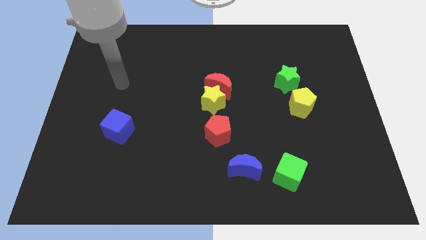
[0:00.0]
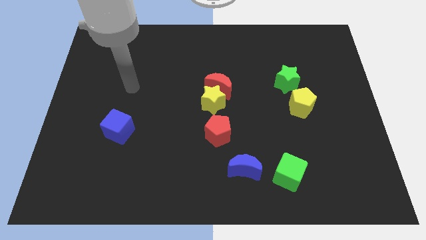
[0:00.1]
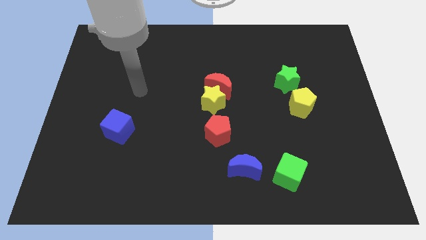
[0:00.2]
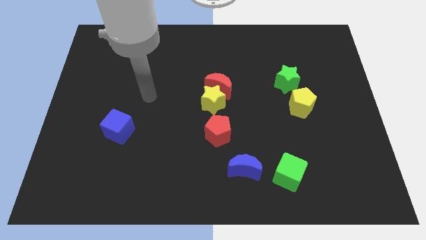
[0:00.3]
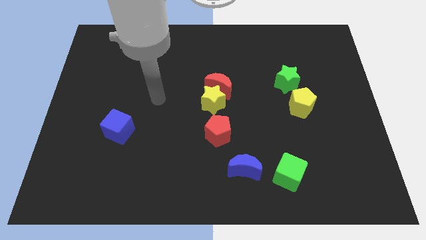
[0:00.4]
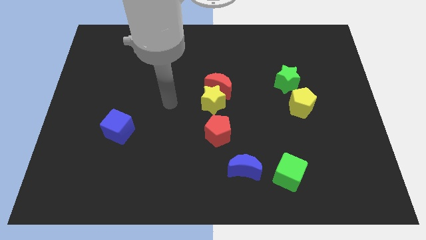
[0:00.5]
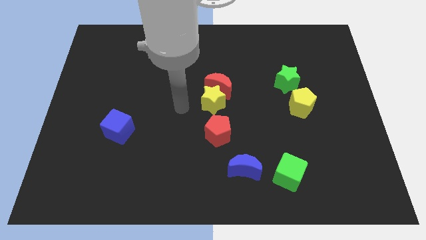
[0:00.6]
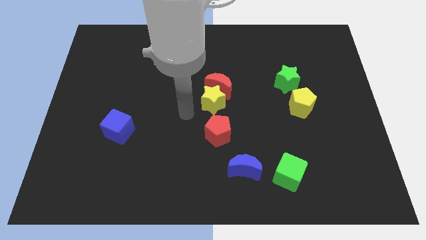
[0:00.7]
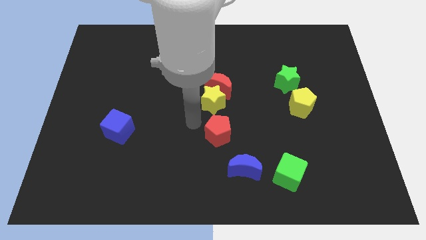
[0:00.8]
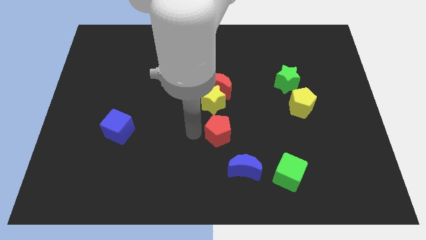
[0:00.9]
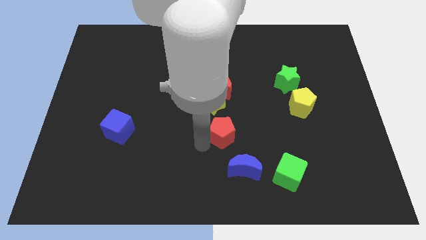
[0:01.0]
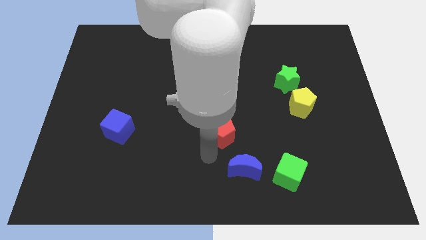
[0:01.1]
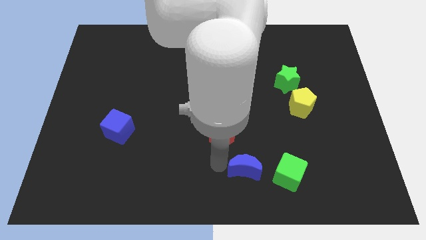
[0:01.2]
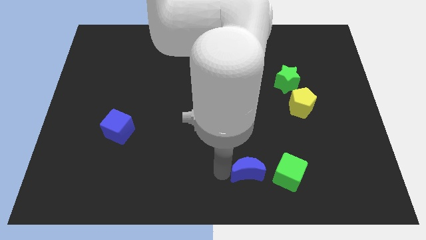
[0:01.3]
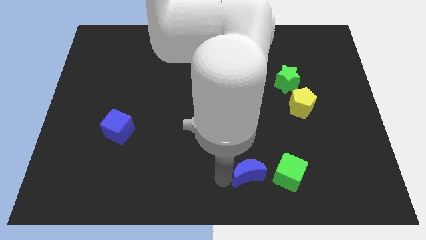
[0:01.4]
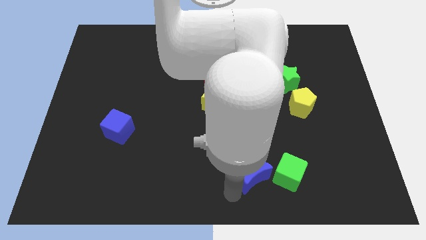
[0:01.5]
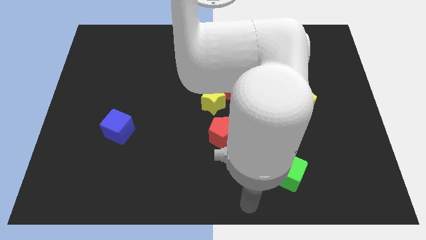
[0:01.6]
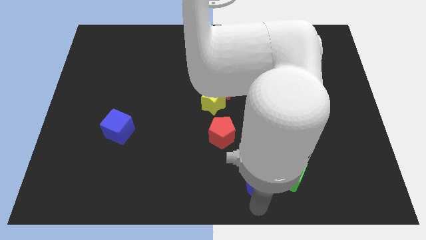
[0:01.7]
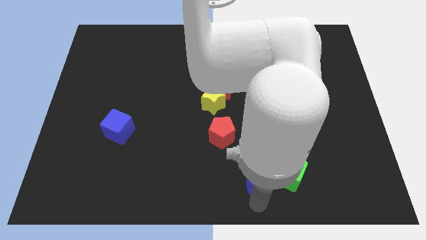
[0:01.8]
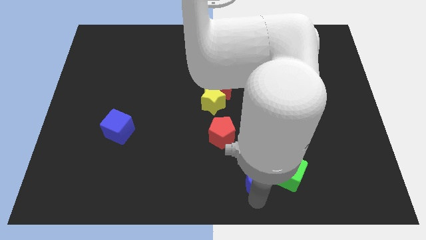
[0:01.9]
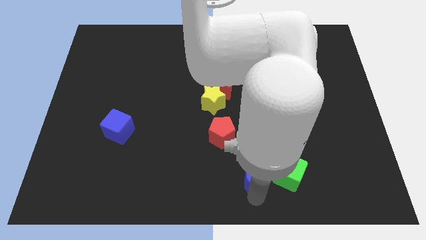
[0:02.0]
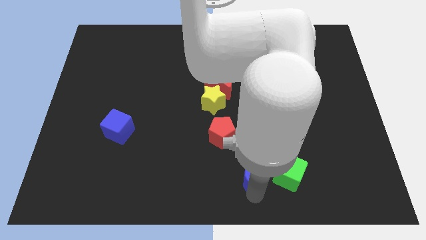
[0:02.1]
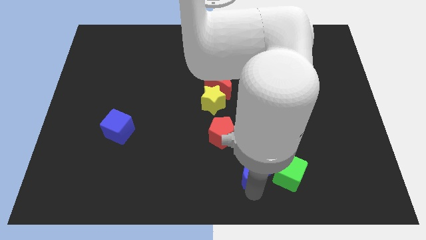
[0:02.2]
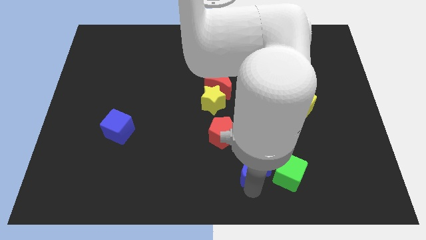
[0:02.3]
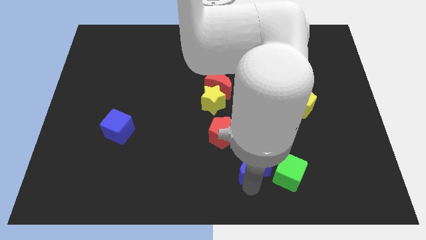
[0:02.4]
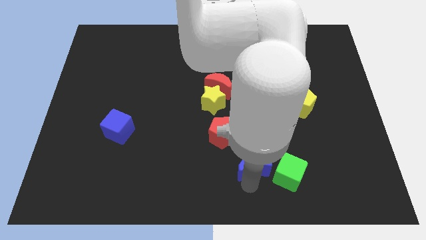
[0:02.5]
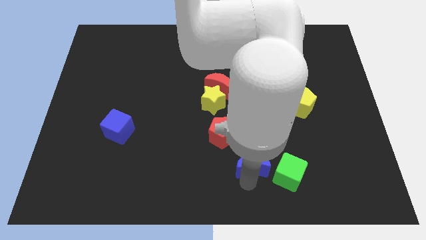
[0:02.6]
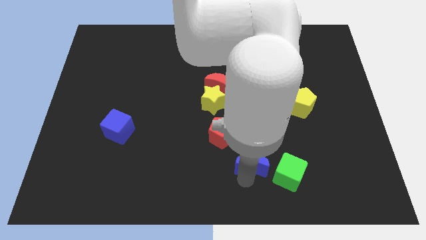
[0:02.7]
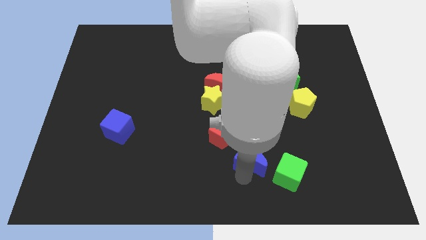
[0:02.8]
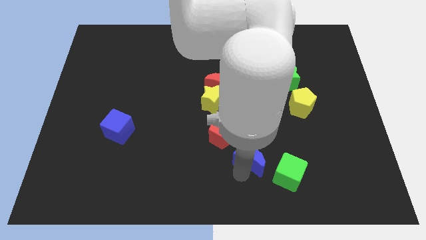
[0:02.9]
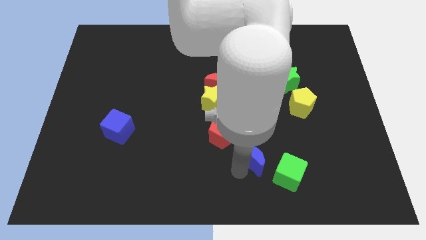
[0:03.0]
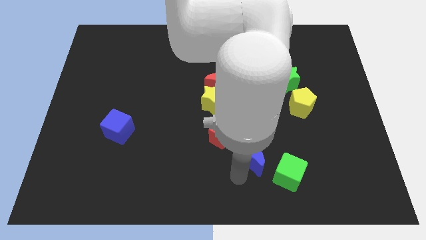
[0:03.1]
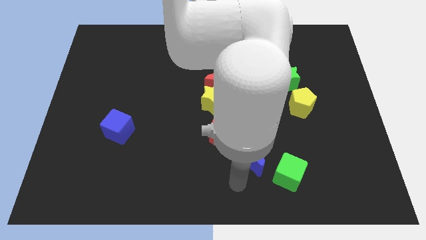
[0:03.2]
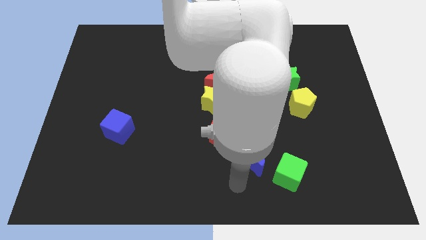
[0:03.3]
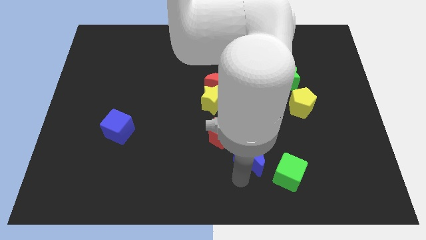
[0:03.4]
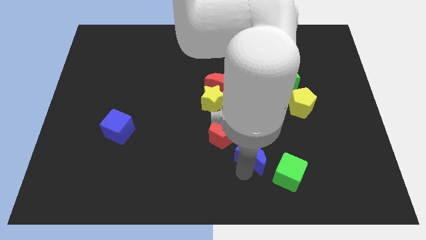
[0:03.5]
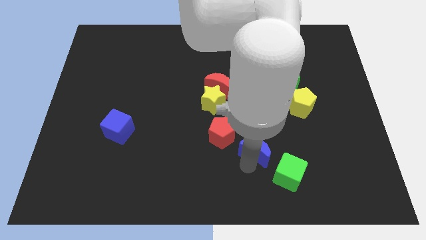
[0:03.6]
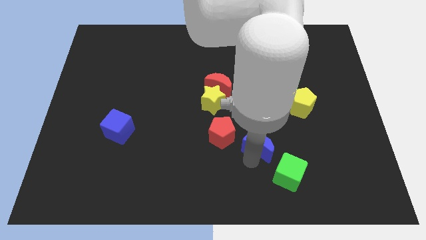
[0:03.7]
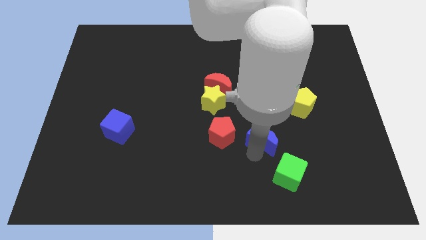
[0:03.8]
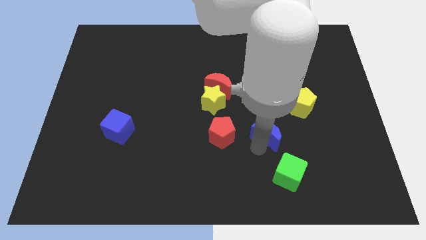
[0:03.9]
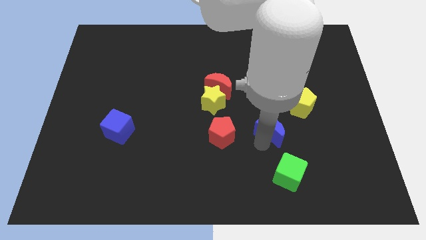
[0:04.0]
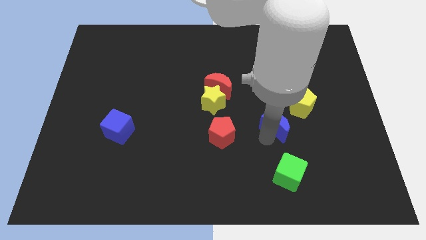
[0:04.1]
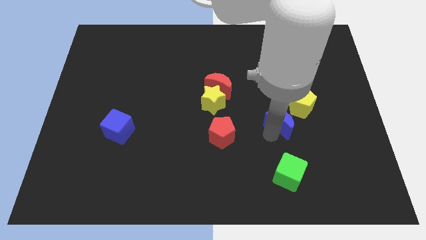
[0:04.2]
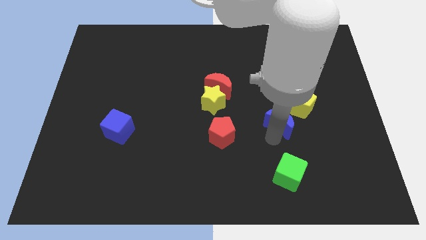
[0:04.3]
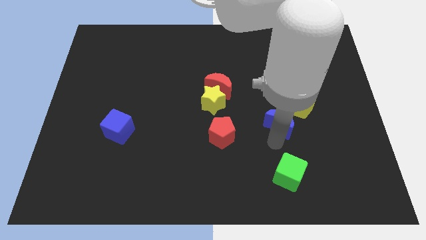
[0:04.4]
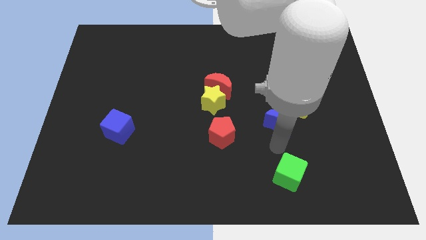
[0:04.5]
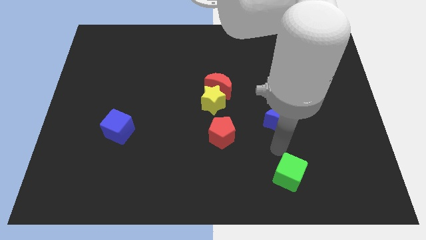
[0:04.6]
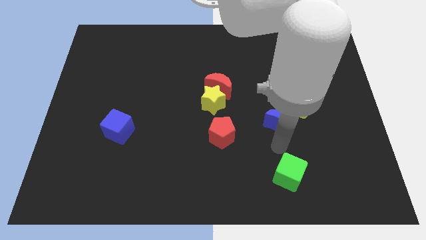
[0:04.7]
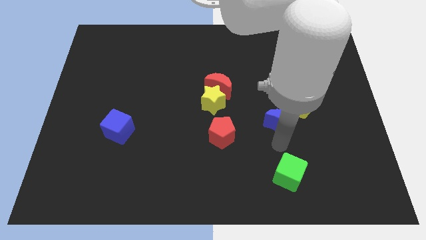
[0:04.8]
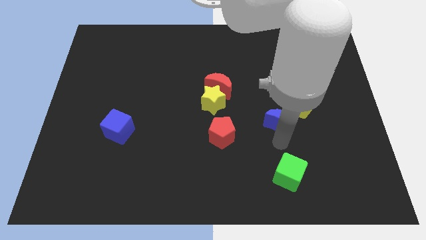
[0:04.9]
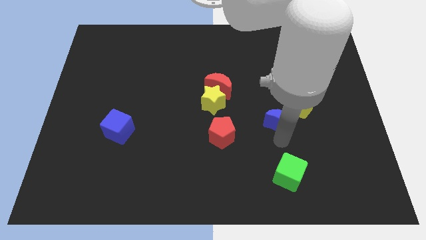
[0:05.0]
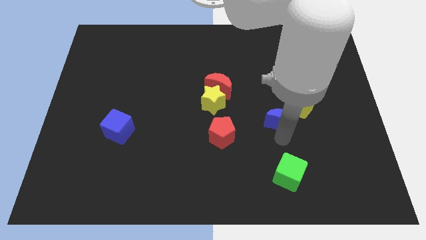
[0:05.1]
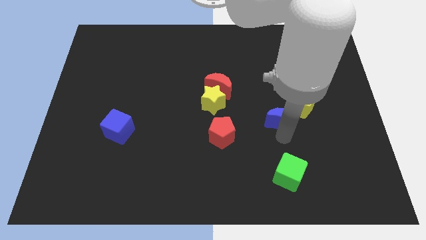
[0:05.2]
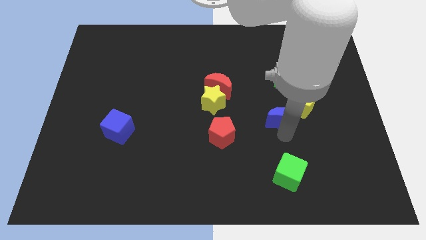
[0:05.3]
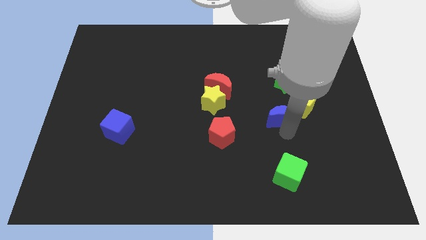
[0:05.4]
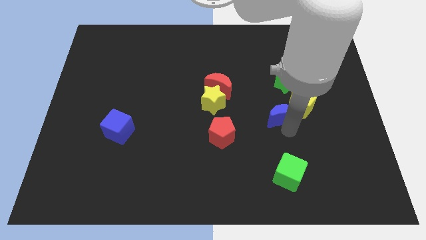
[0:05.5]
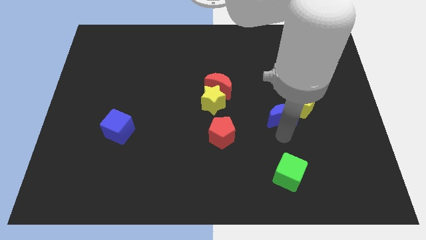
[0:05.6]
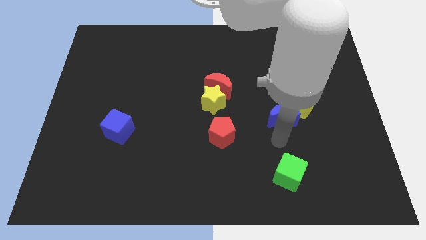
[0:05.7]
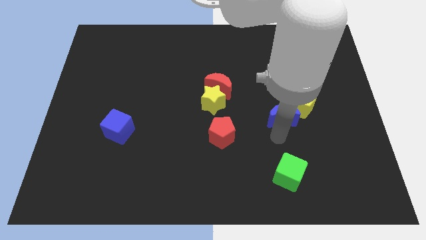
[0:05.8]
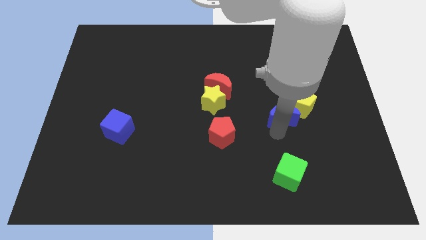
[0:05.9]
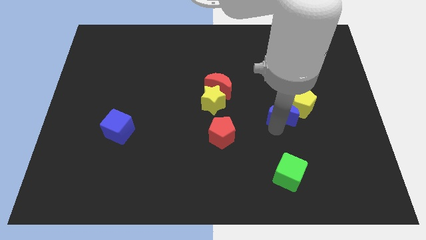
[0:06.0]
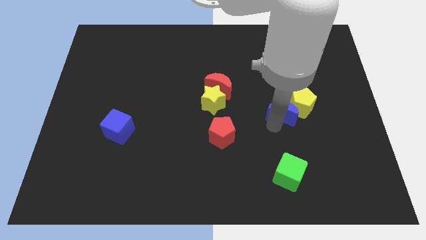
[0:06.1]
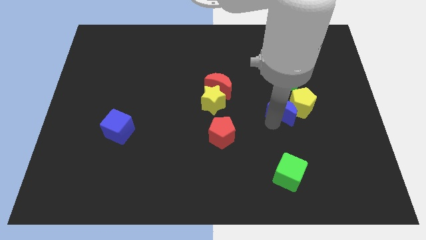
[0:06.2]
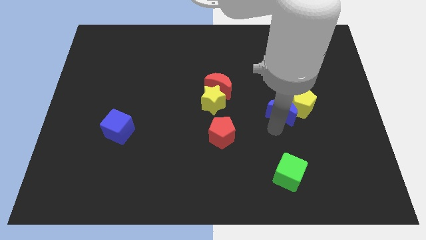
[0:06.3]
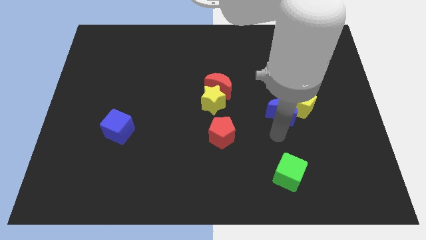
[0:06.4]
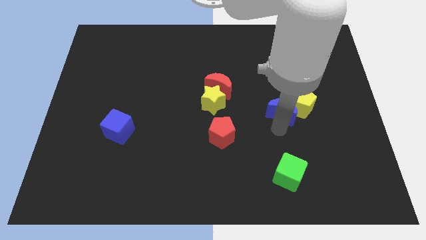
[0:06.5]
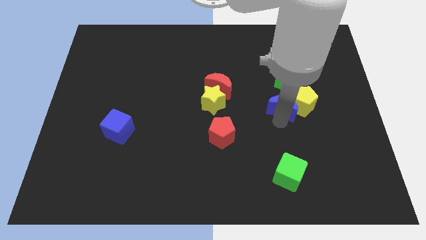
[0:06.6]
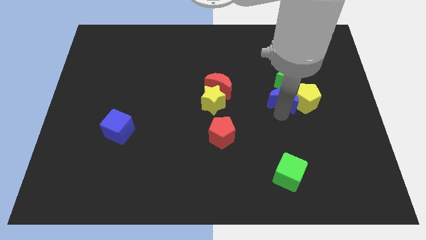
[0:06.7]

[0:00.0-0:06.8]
move the blue moon to the green star

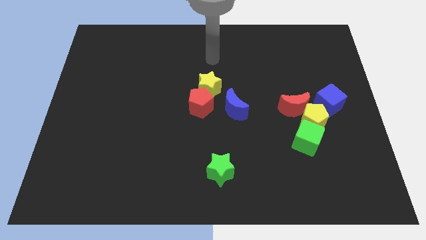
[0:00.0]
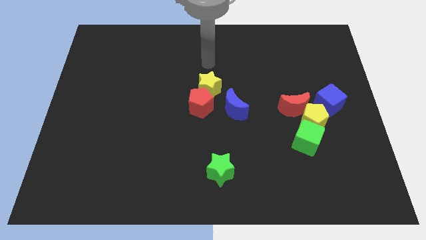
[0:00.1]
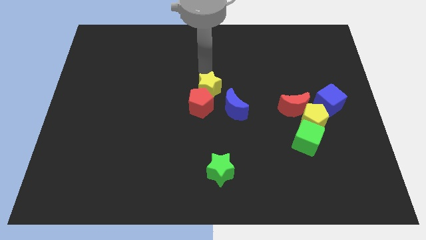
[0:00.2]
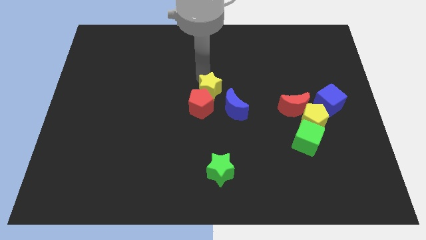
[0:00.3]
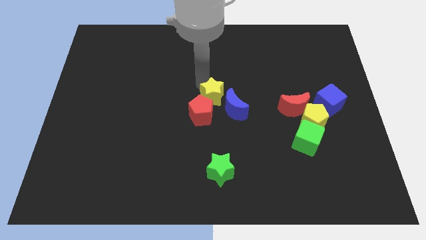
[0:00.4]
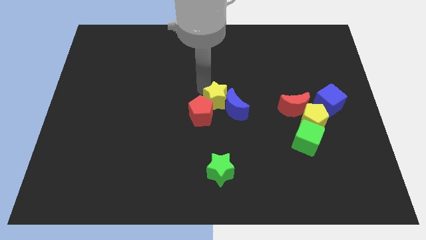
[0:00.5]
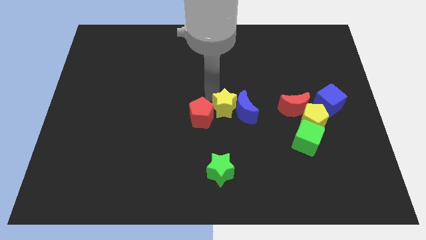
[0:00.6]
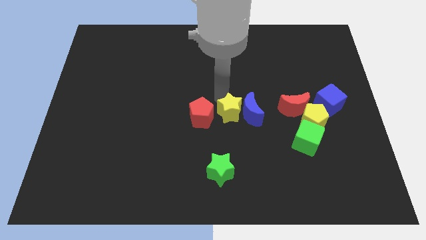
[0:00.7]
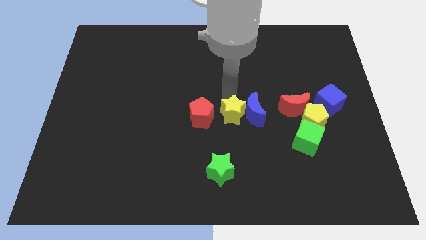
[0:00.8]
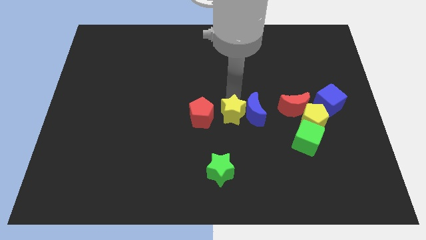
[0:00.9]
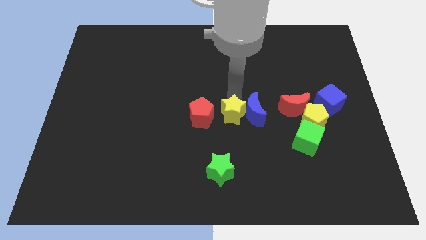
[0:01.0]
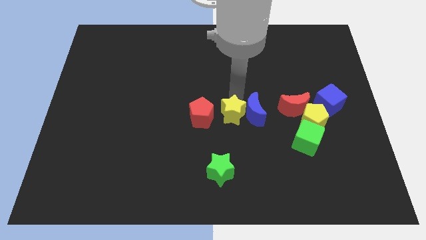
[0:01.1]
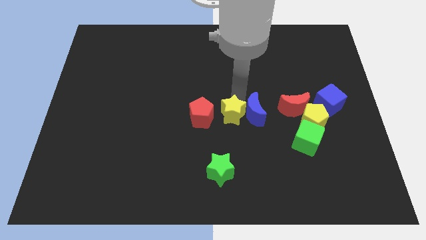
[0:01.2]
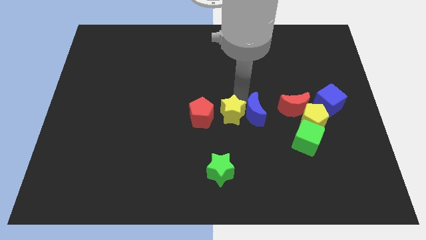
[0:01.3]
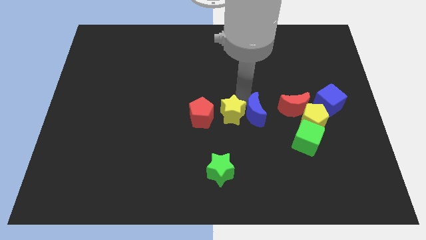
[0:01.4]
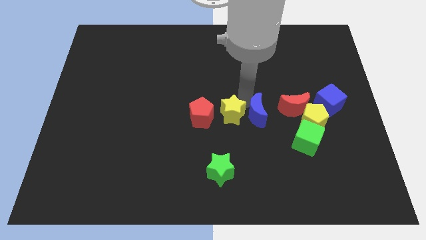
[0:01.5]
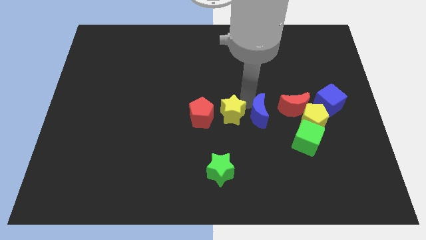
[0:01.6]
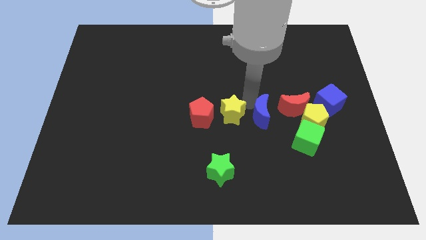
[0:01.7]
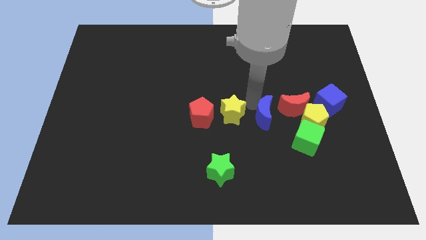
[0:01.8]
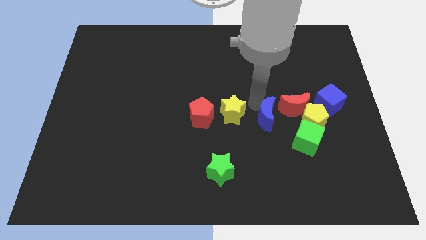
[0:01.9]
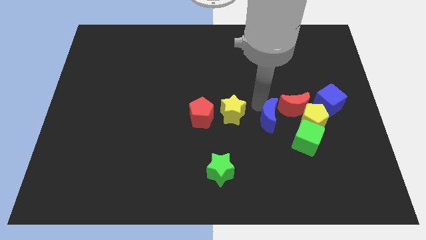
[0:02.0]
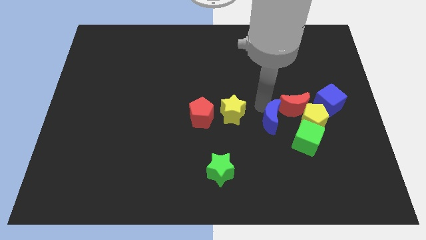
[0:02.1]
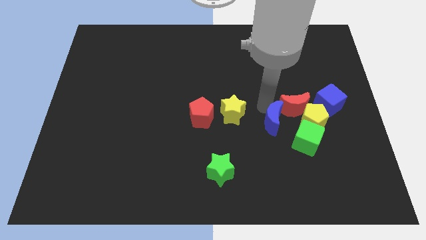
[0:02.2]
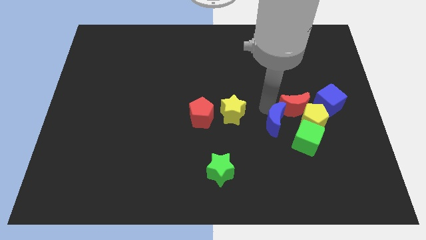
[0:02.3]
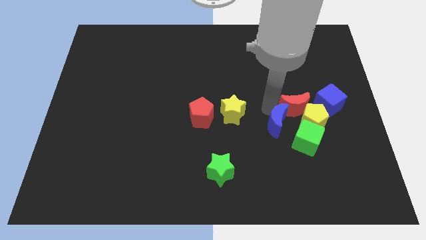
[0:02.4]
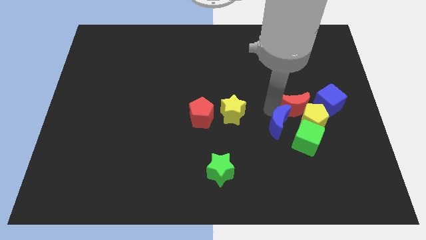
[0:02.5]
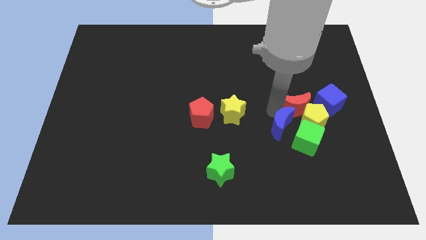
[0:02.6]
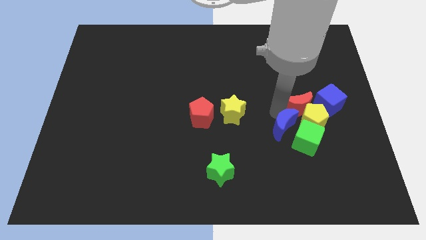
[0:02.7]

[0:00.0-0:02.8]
push the blue moon to the green cube
